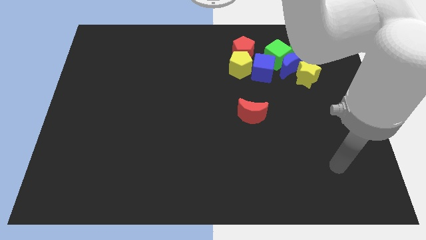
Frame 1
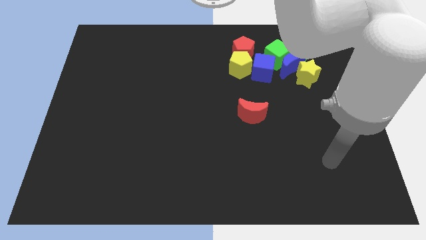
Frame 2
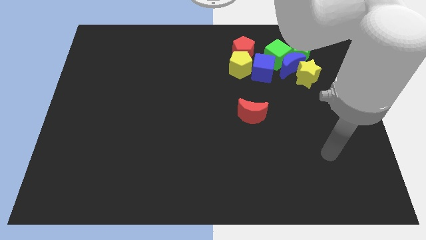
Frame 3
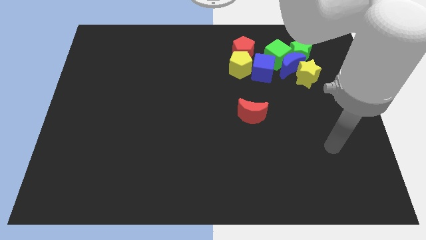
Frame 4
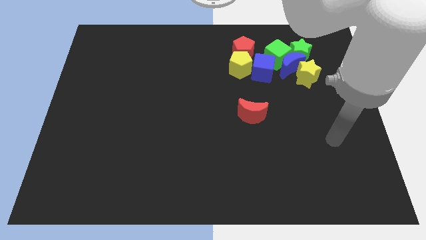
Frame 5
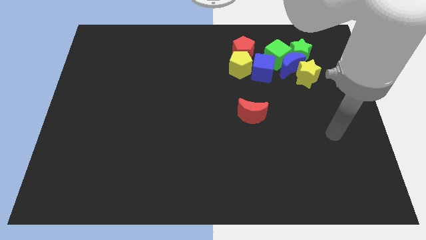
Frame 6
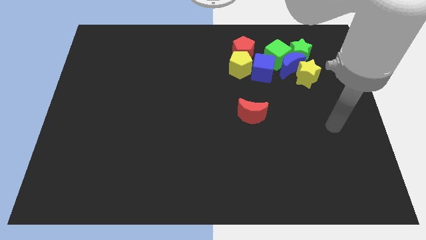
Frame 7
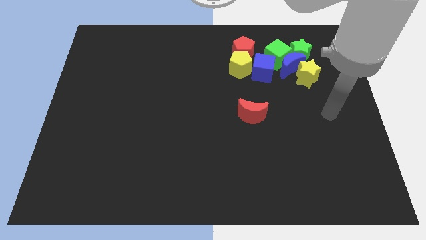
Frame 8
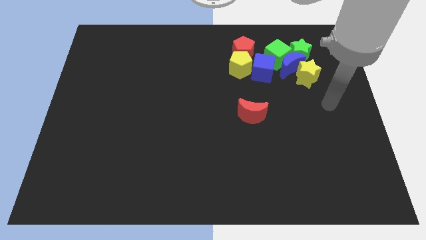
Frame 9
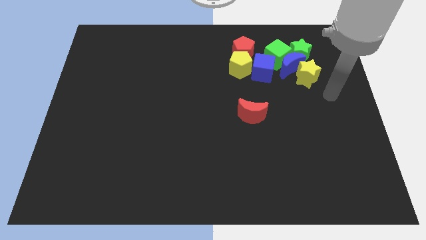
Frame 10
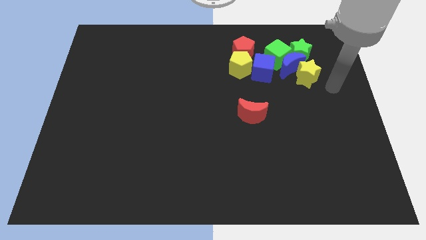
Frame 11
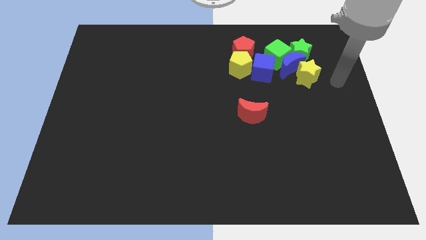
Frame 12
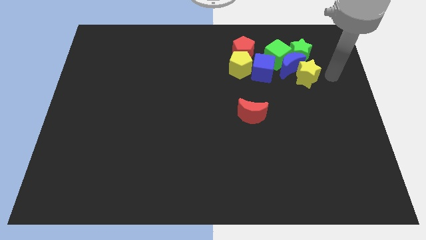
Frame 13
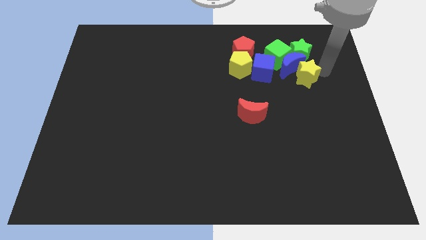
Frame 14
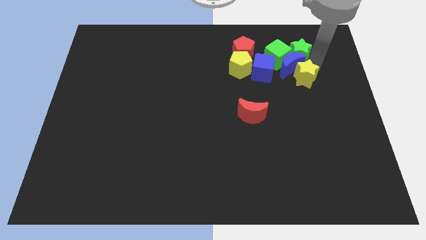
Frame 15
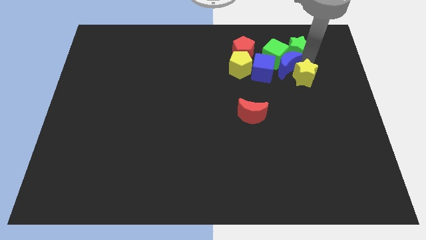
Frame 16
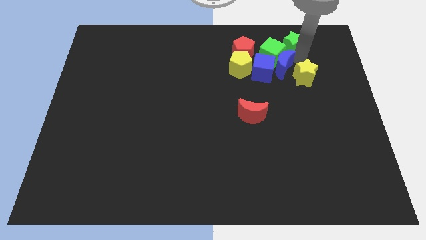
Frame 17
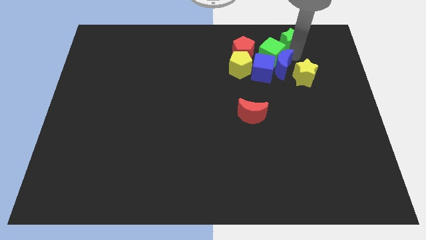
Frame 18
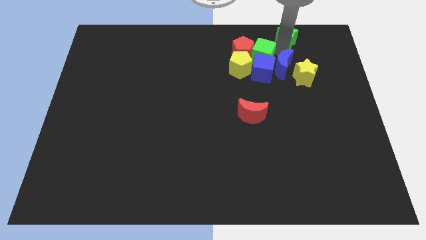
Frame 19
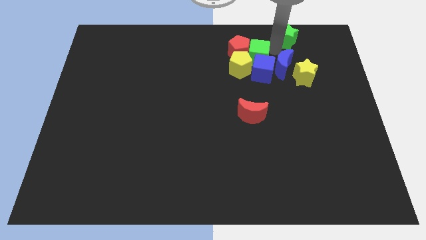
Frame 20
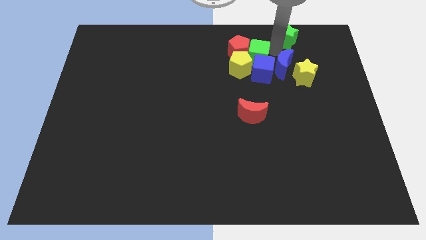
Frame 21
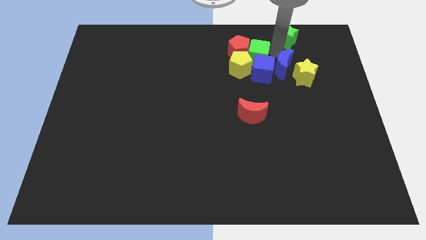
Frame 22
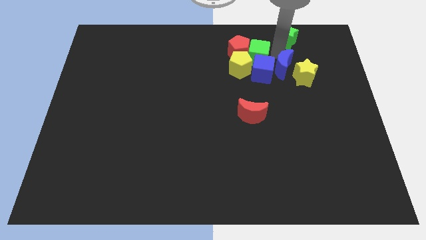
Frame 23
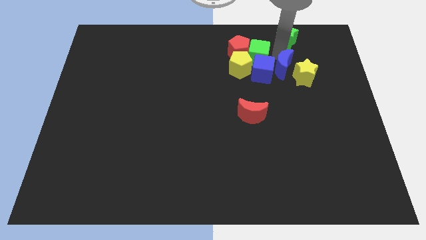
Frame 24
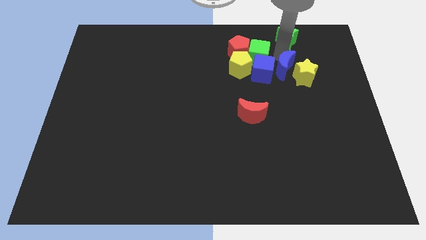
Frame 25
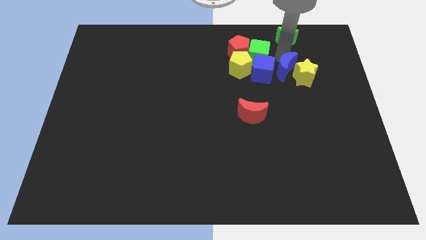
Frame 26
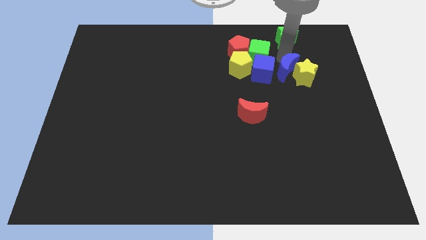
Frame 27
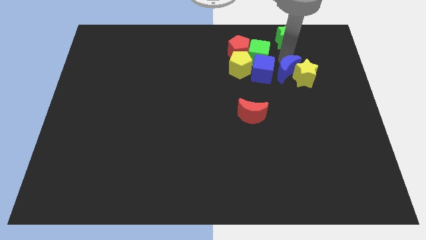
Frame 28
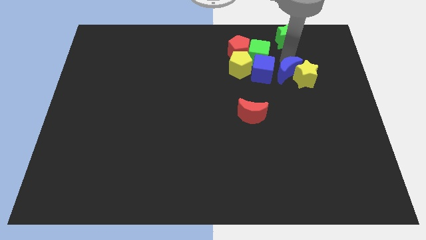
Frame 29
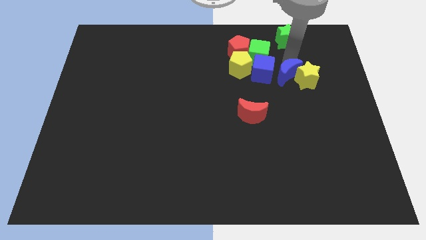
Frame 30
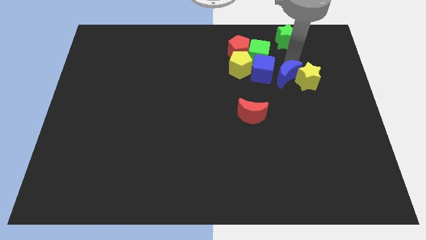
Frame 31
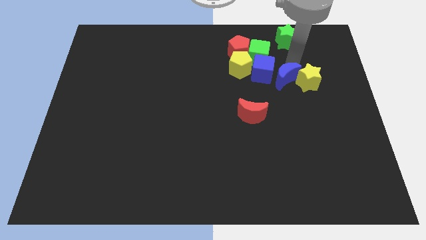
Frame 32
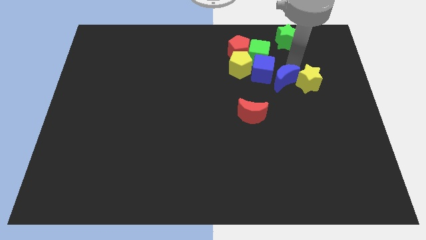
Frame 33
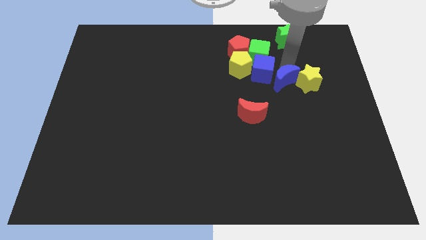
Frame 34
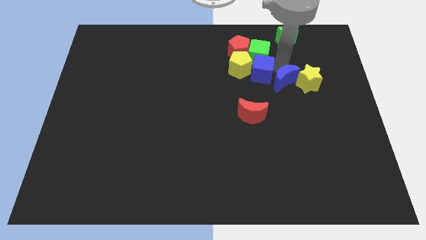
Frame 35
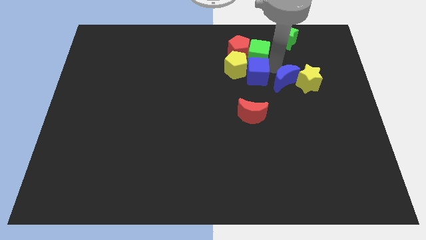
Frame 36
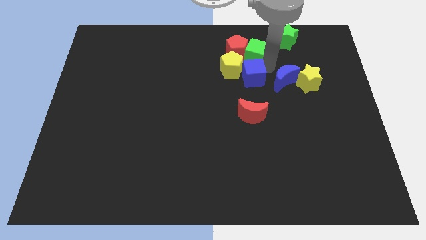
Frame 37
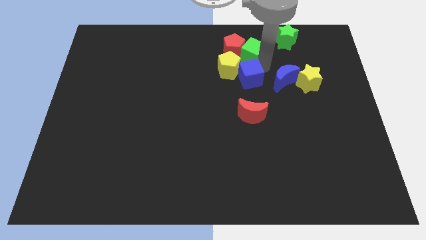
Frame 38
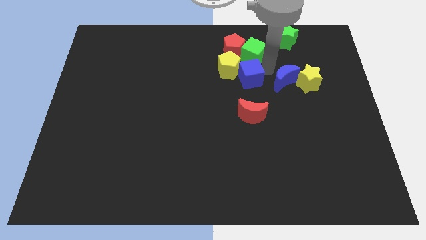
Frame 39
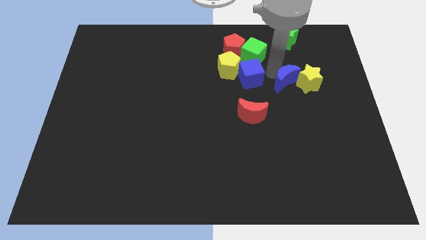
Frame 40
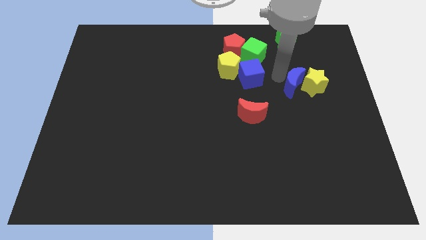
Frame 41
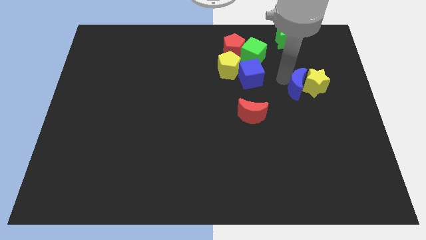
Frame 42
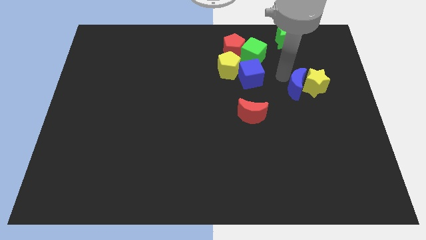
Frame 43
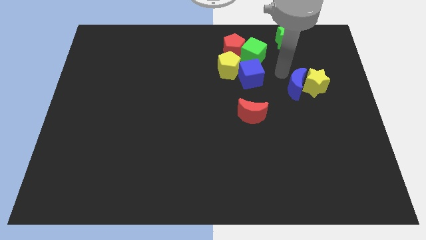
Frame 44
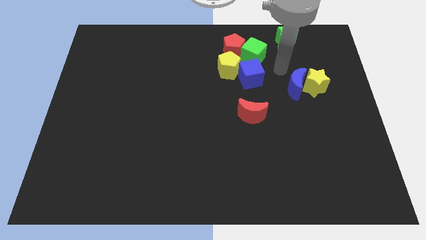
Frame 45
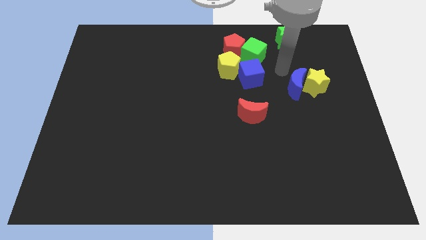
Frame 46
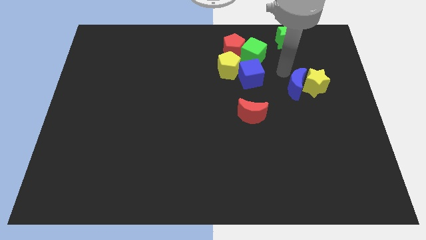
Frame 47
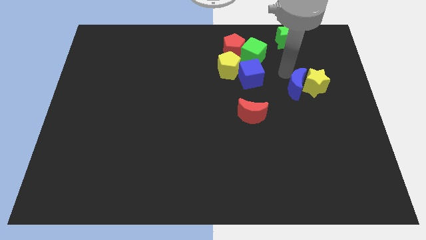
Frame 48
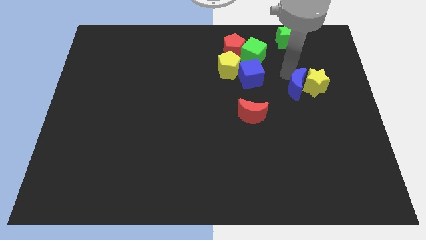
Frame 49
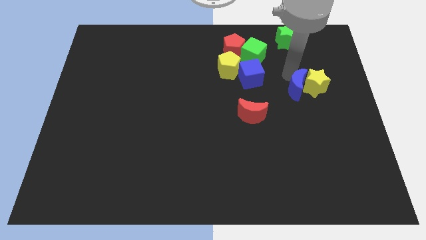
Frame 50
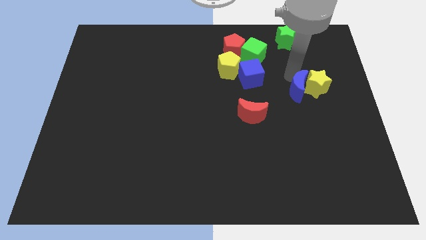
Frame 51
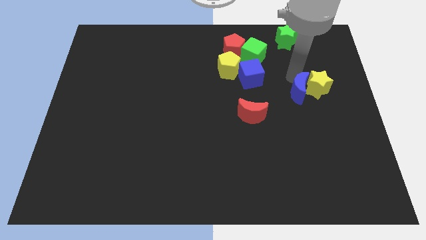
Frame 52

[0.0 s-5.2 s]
move the blue moon away from the group

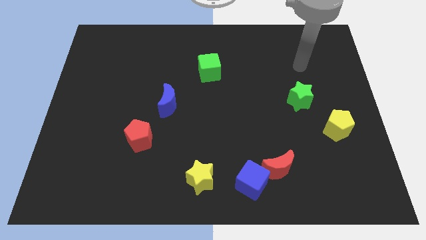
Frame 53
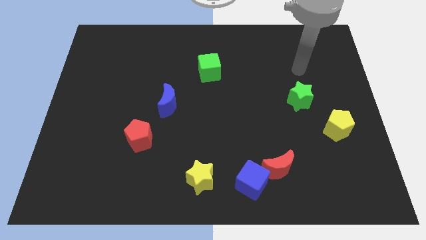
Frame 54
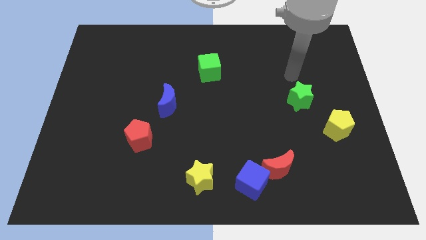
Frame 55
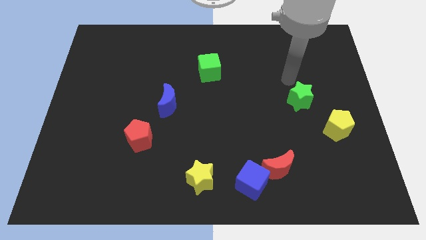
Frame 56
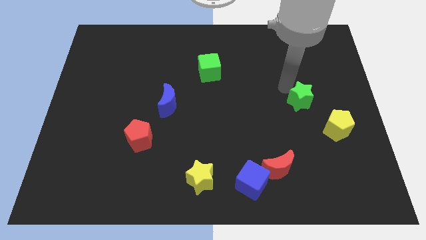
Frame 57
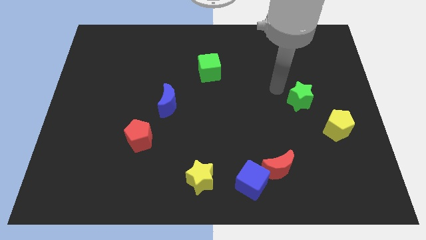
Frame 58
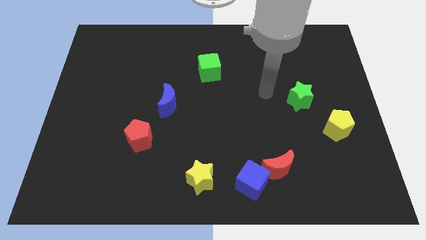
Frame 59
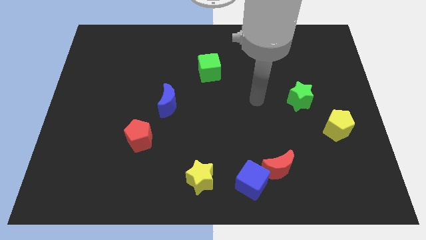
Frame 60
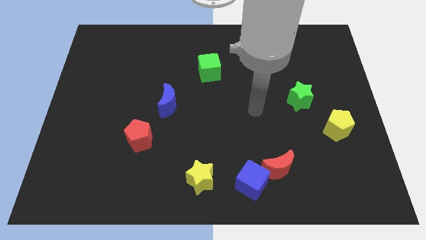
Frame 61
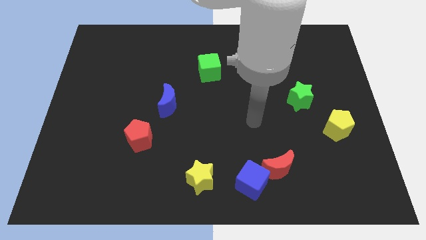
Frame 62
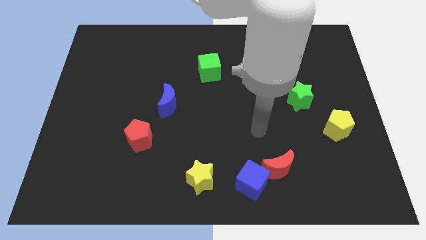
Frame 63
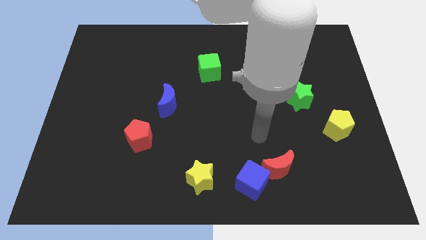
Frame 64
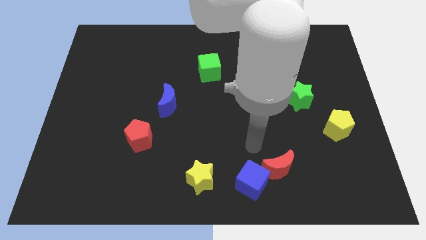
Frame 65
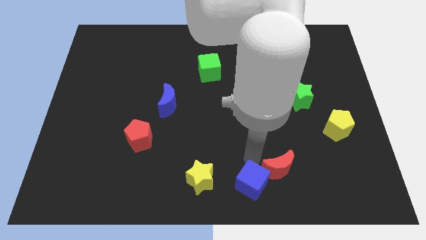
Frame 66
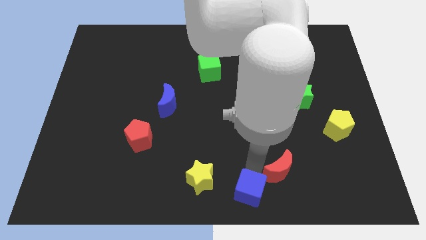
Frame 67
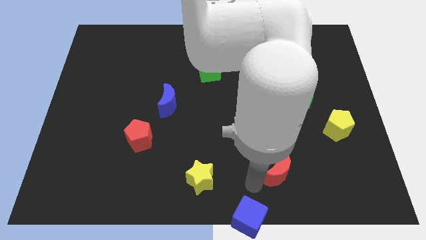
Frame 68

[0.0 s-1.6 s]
move the red moon away from the blue cube

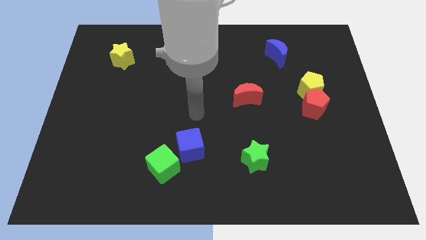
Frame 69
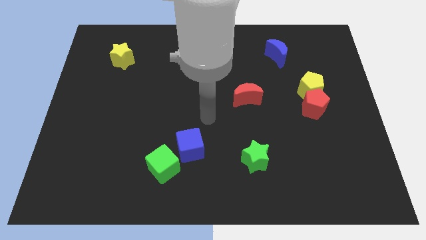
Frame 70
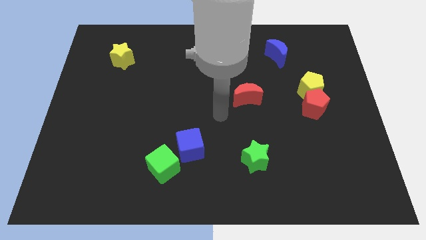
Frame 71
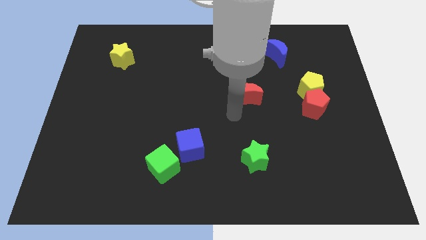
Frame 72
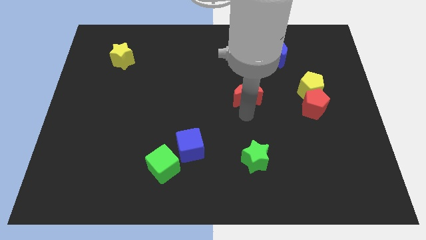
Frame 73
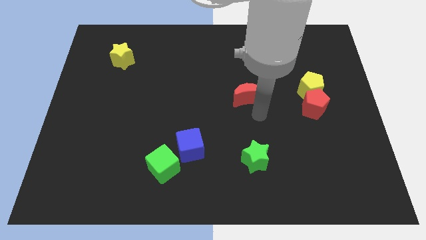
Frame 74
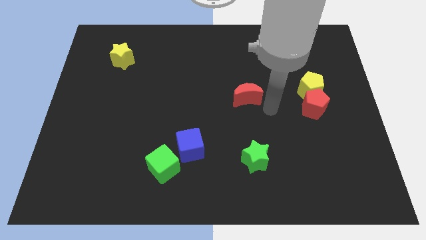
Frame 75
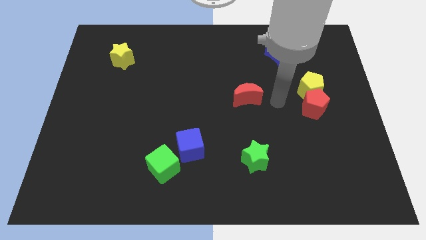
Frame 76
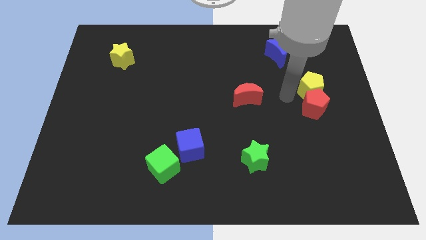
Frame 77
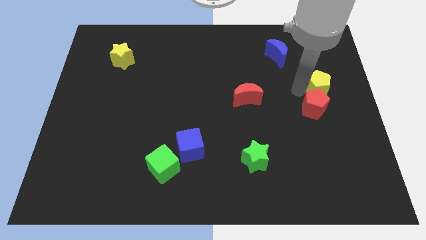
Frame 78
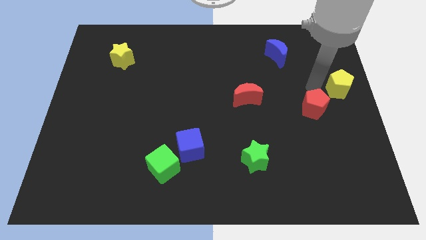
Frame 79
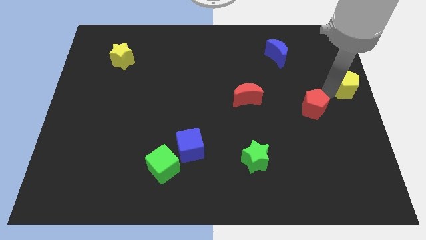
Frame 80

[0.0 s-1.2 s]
separate the red pentagon from the yellow pentagon

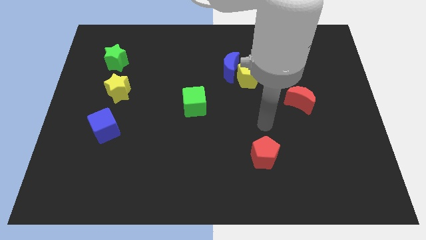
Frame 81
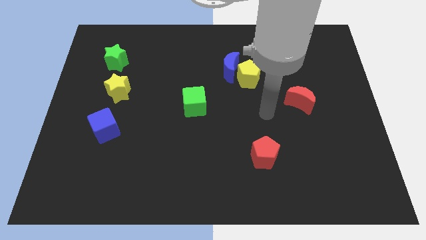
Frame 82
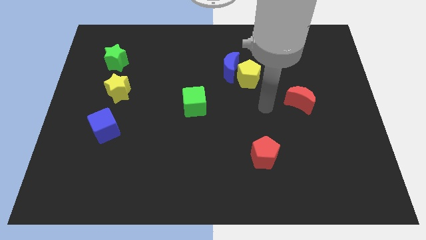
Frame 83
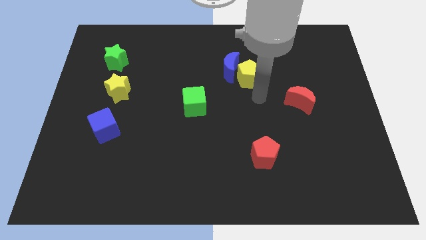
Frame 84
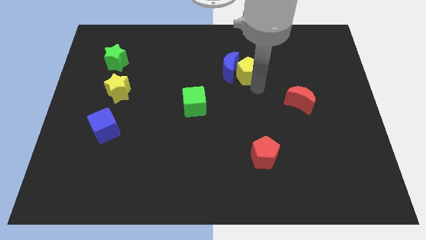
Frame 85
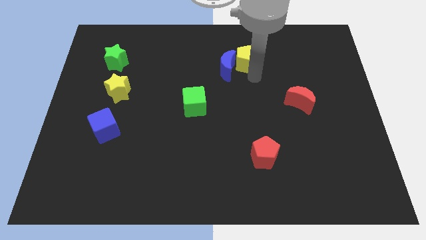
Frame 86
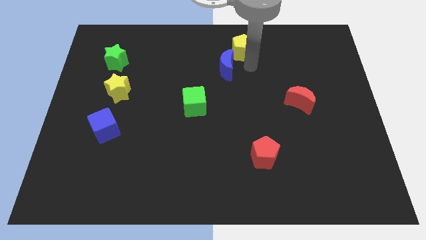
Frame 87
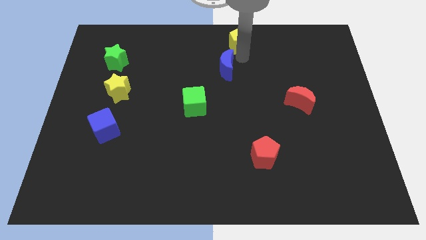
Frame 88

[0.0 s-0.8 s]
separate the blue moon from the yellow pentagon

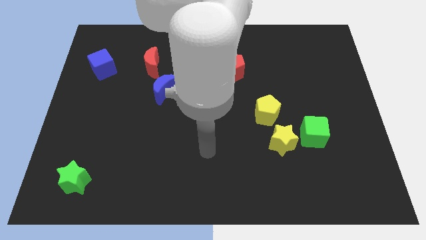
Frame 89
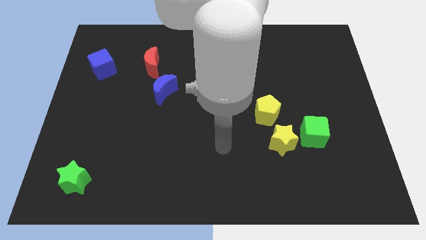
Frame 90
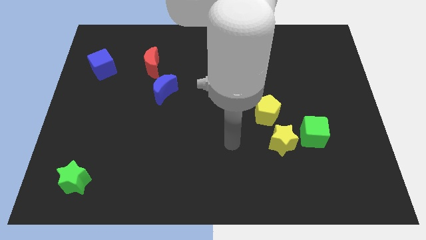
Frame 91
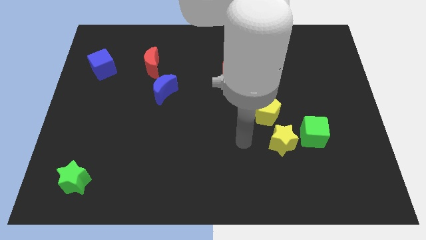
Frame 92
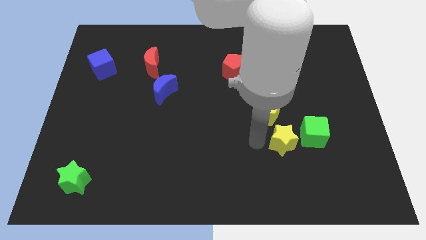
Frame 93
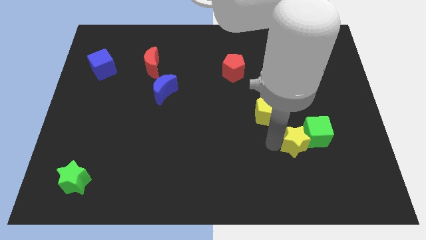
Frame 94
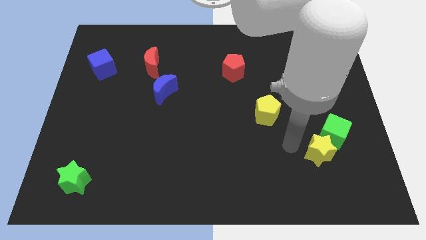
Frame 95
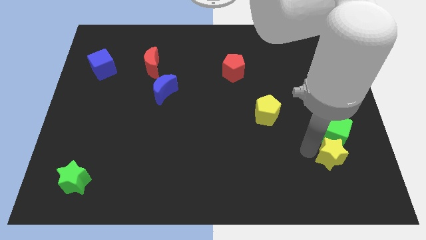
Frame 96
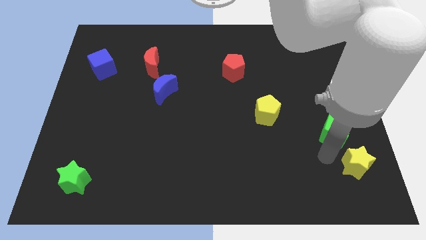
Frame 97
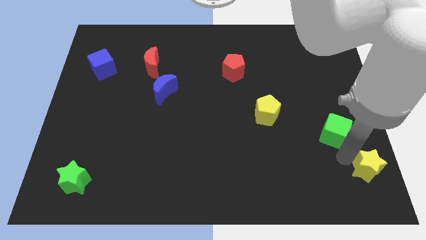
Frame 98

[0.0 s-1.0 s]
move the green cube away from the yellow star
